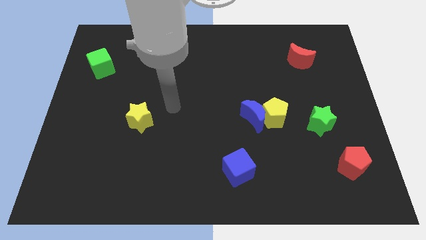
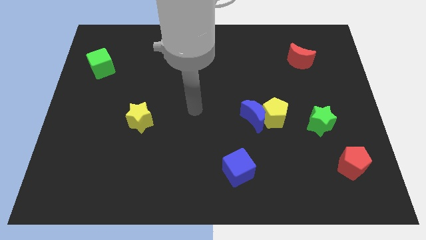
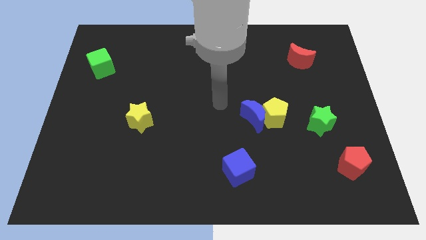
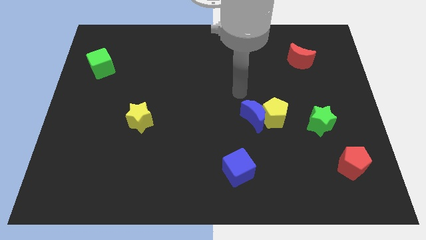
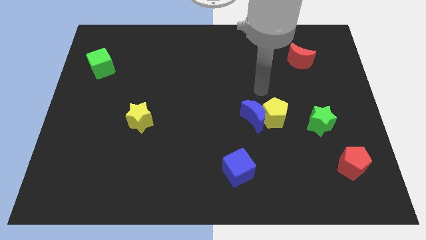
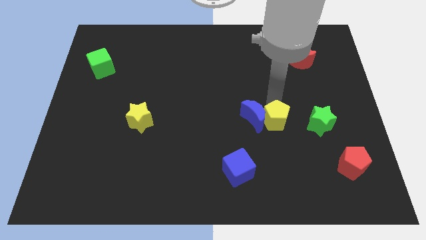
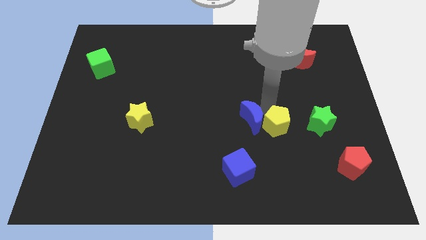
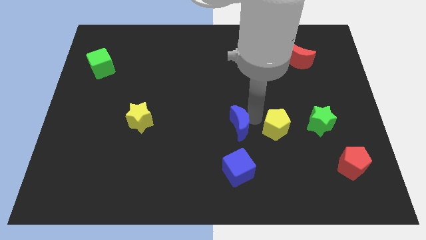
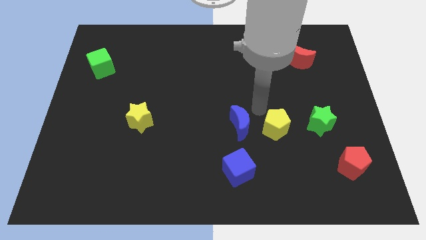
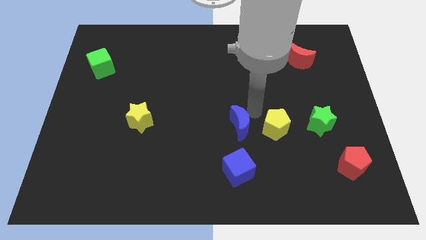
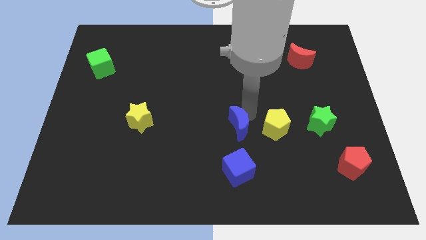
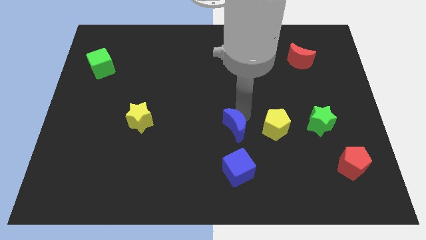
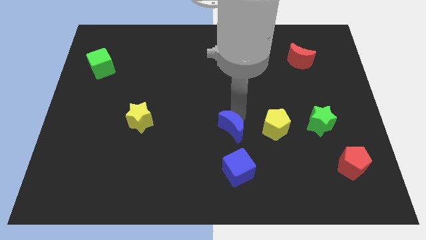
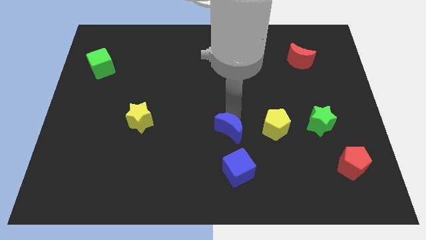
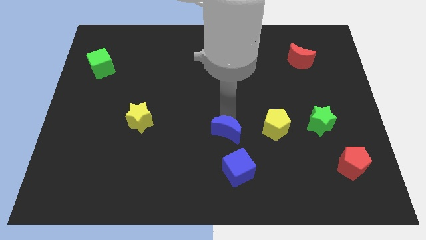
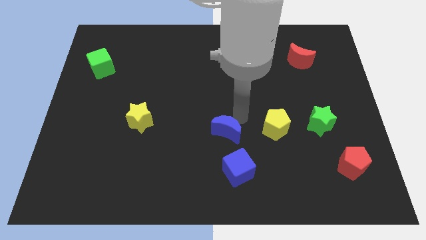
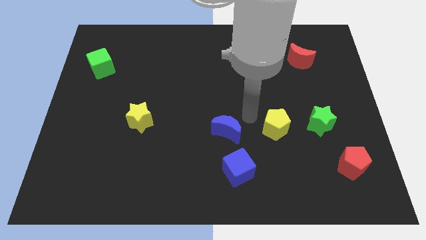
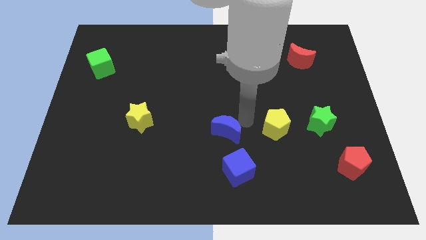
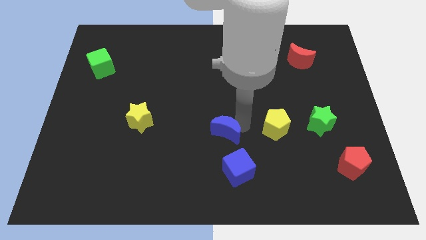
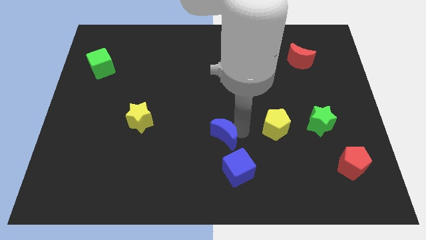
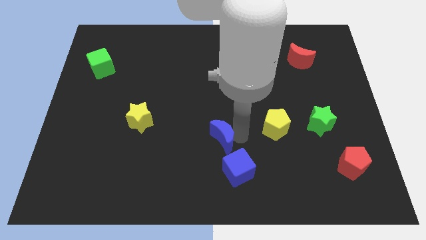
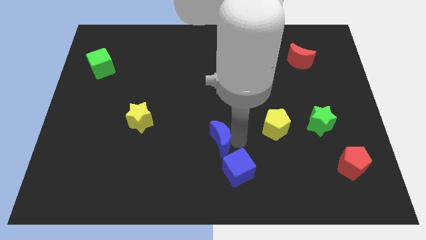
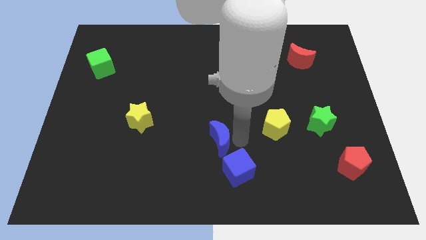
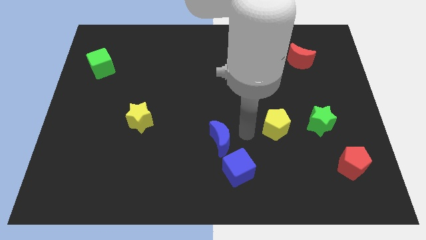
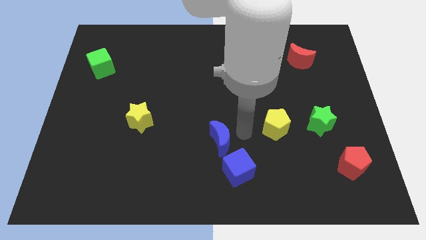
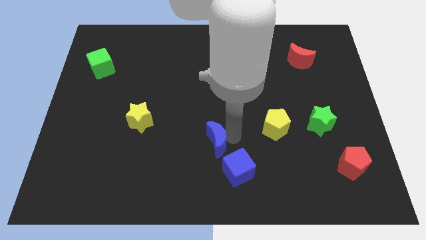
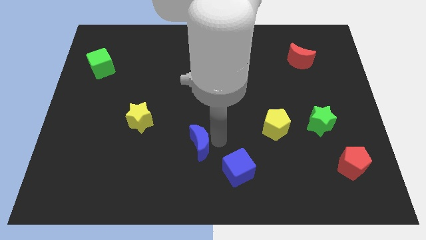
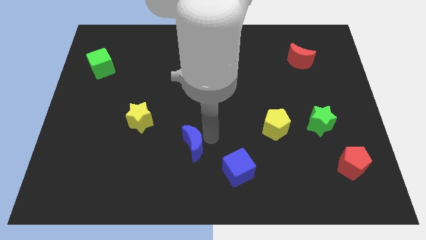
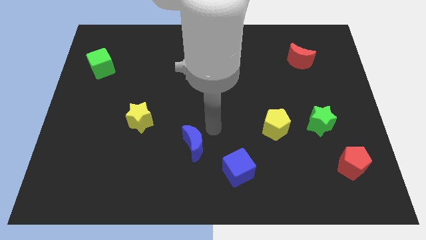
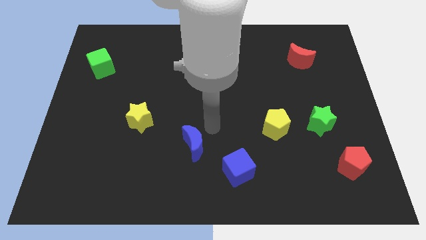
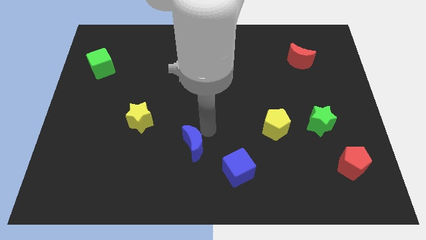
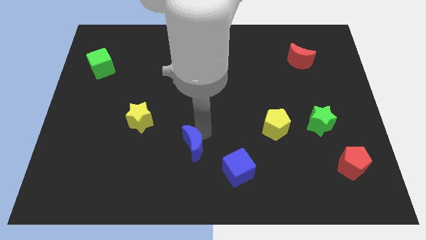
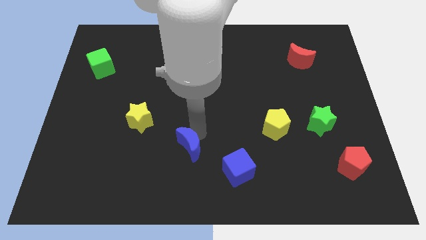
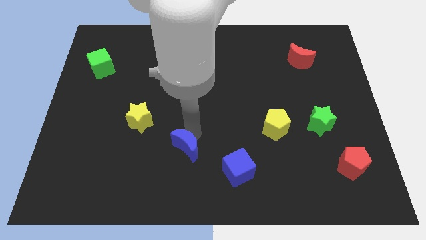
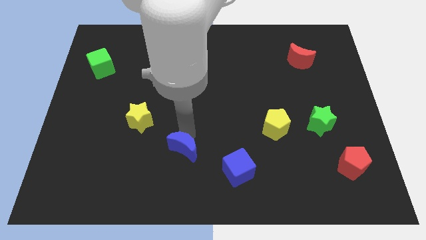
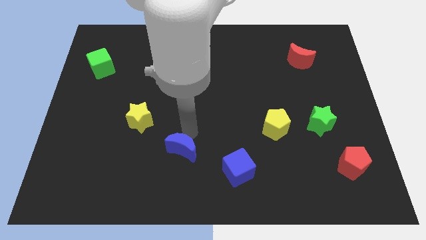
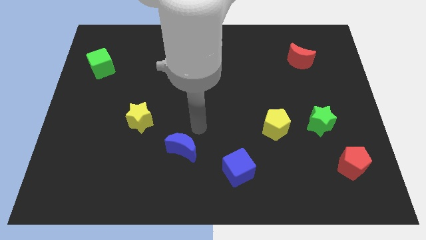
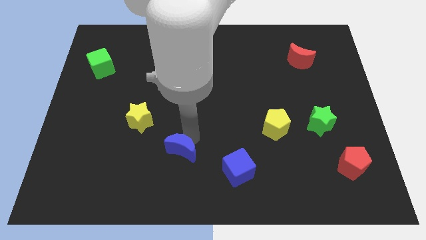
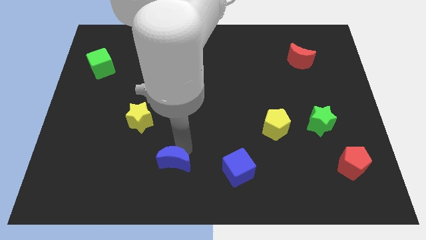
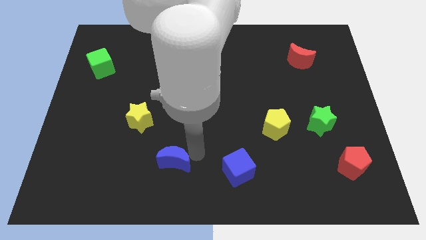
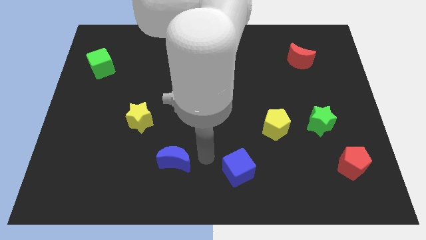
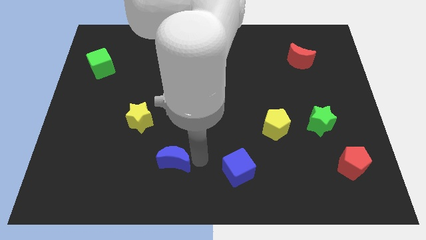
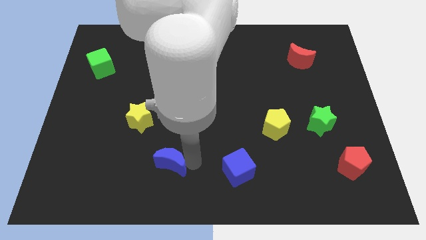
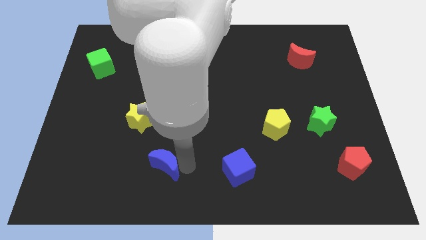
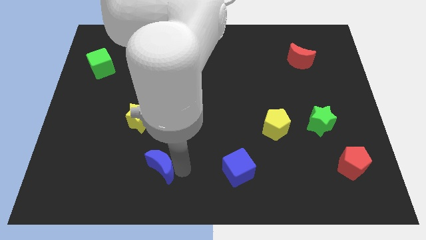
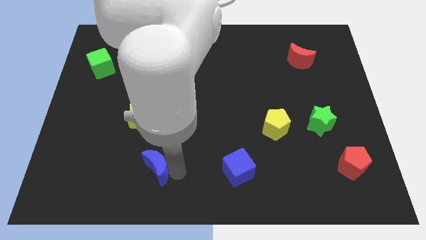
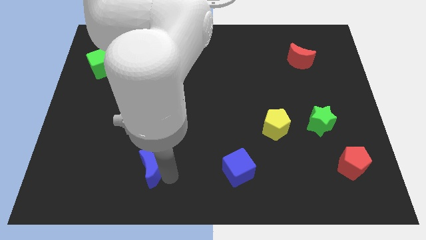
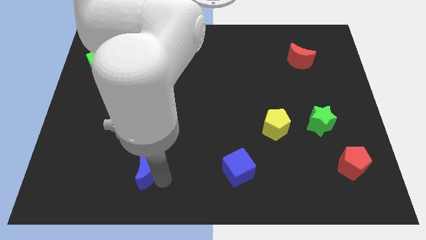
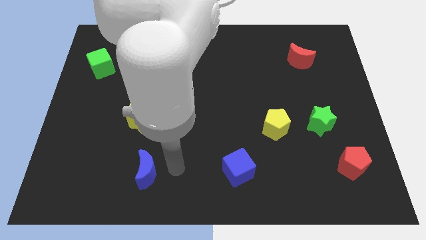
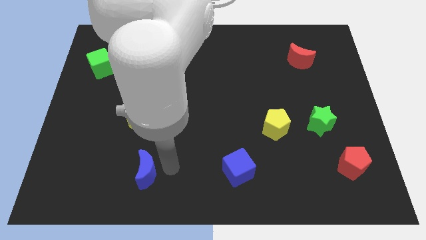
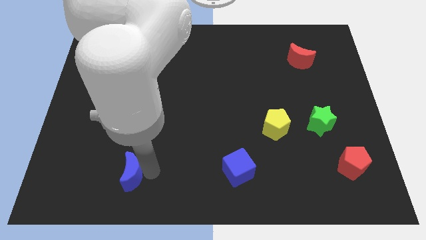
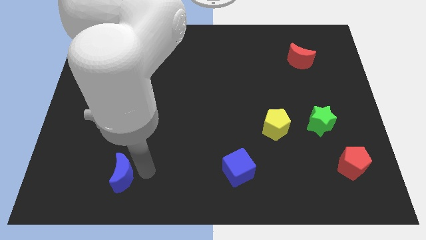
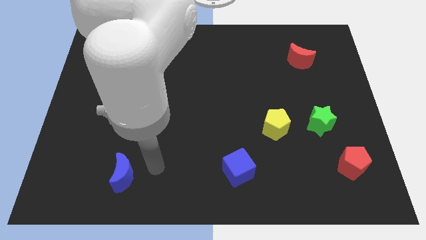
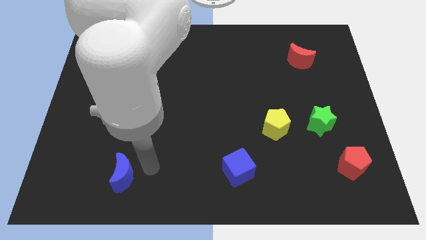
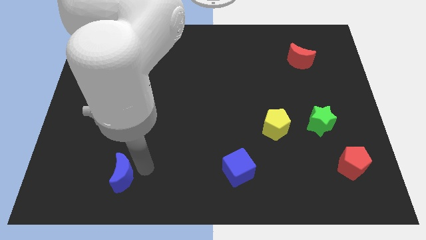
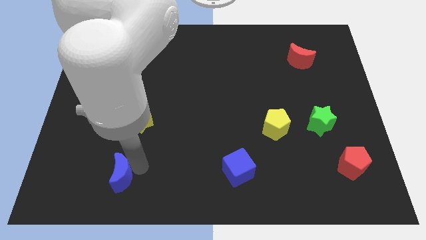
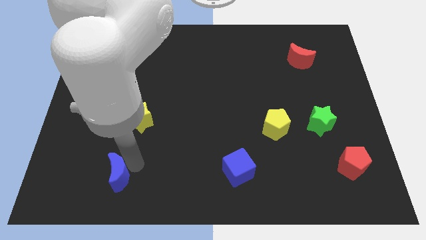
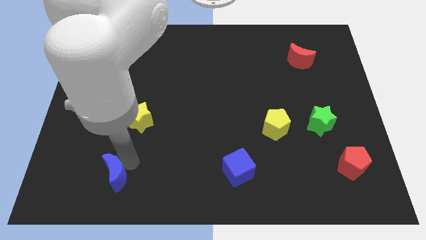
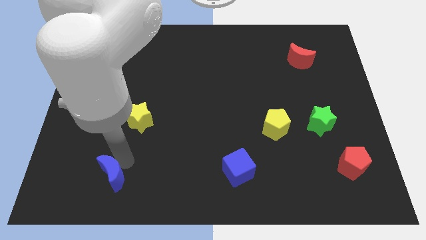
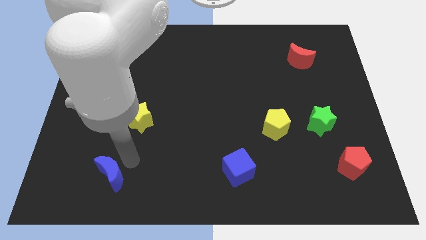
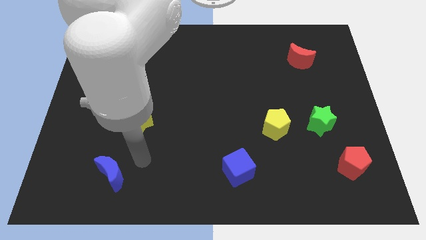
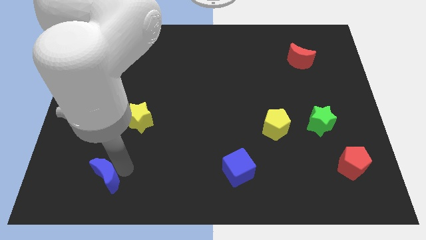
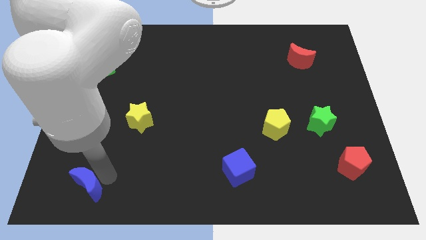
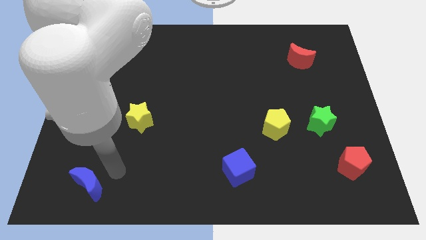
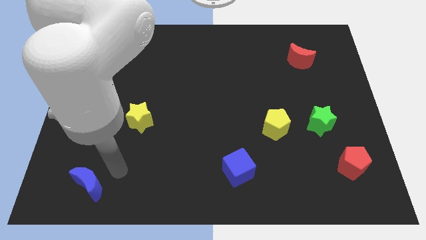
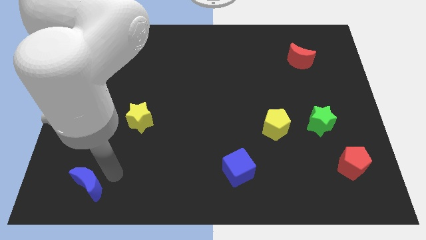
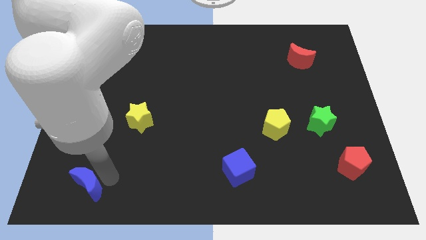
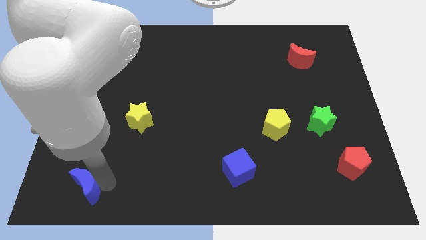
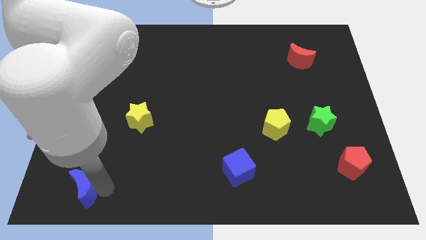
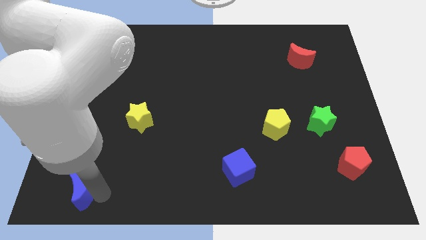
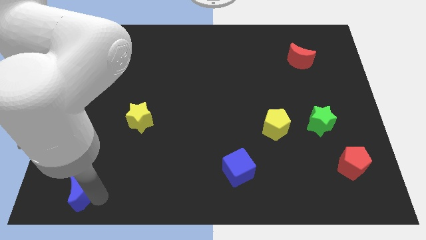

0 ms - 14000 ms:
slide the blue moon to the bottom left corner
